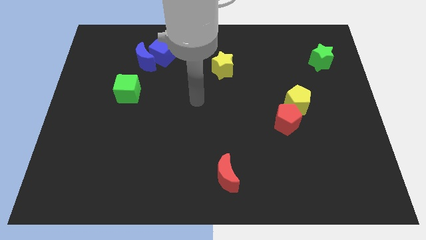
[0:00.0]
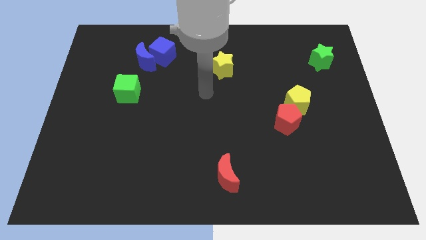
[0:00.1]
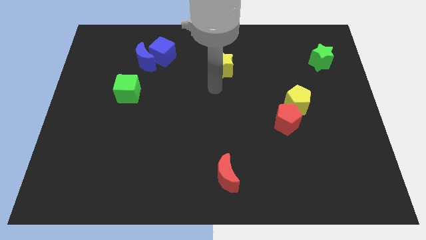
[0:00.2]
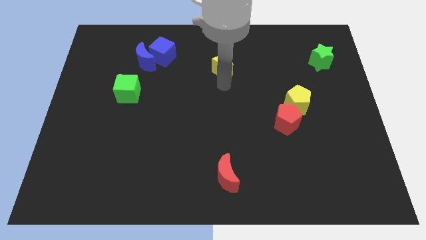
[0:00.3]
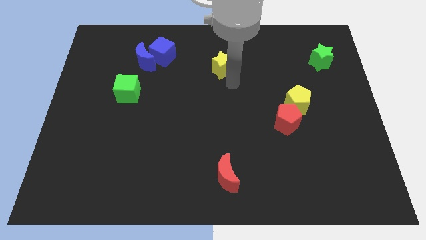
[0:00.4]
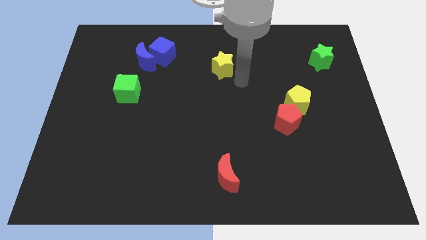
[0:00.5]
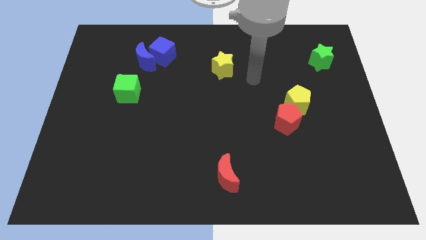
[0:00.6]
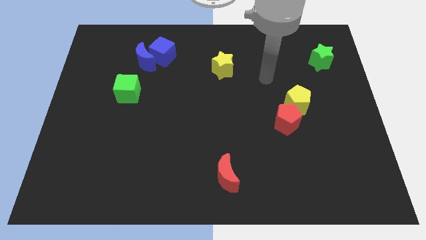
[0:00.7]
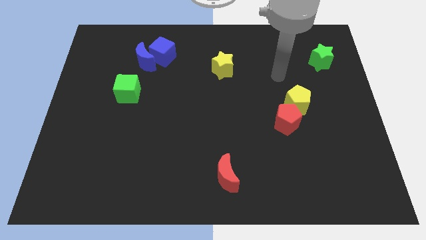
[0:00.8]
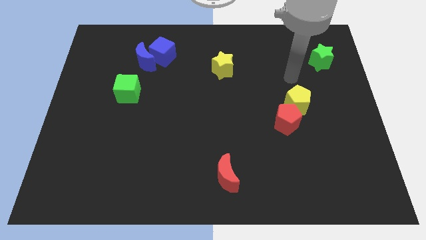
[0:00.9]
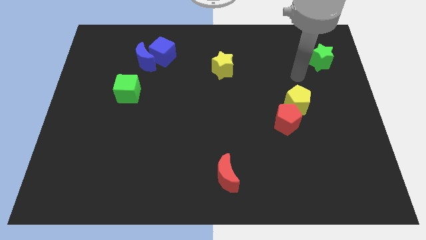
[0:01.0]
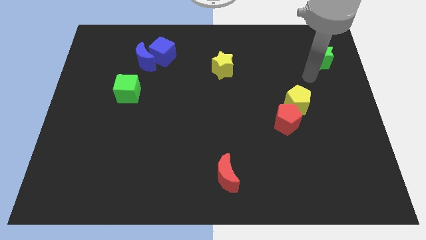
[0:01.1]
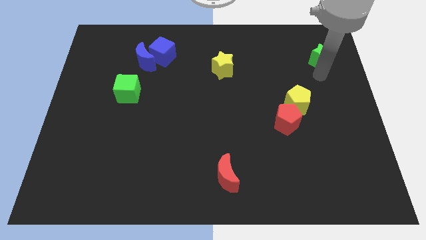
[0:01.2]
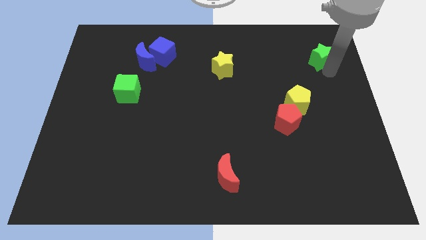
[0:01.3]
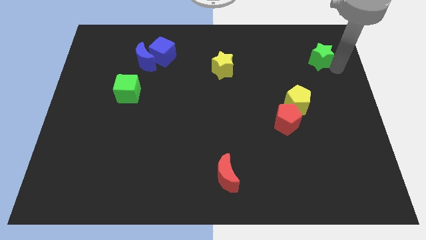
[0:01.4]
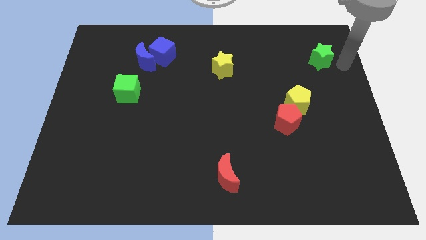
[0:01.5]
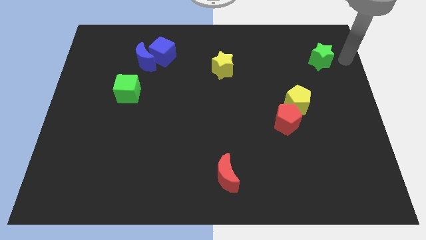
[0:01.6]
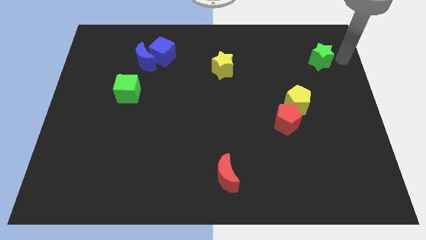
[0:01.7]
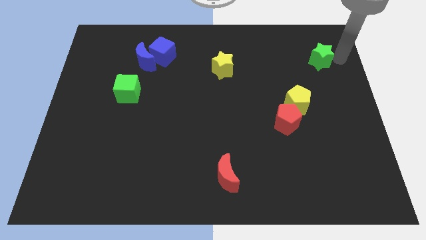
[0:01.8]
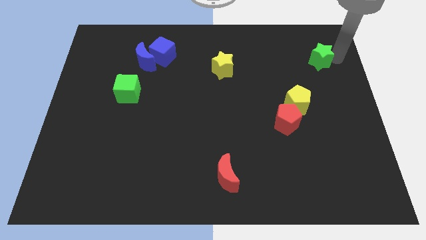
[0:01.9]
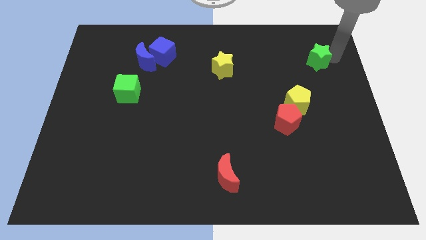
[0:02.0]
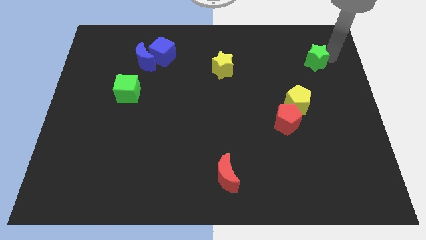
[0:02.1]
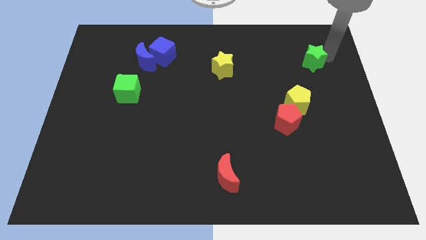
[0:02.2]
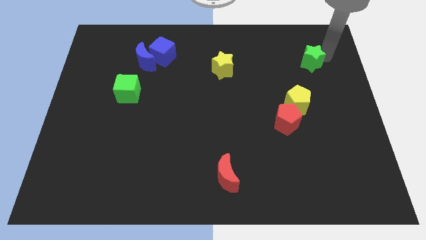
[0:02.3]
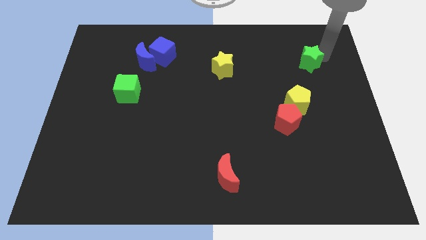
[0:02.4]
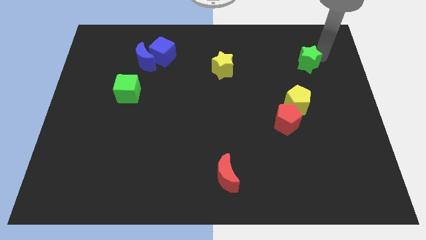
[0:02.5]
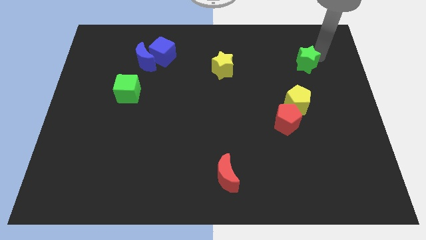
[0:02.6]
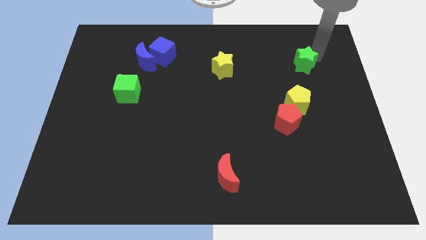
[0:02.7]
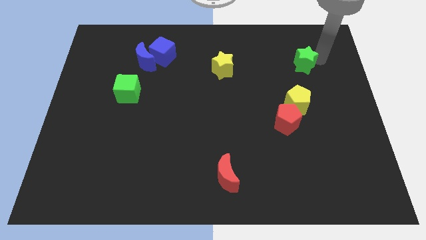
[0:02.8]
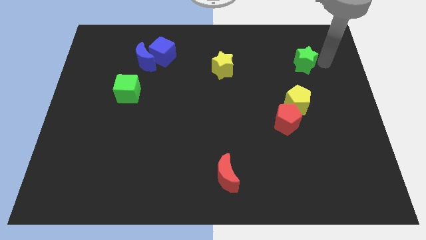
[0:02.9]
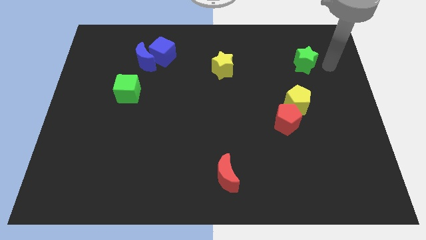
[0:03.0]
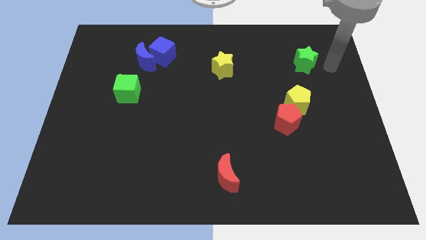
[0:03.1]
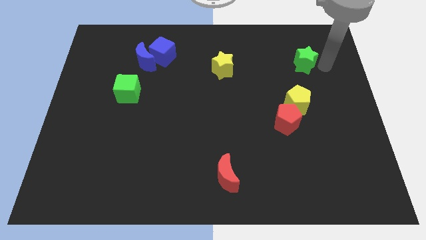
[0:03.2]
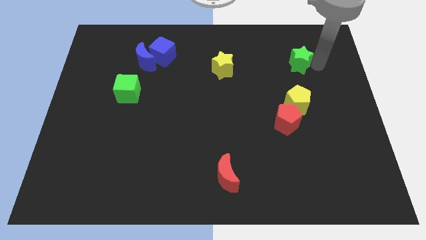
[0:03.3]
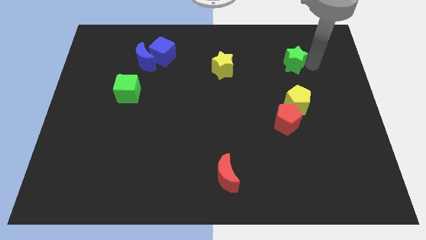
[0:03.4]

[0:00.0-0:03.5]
push the green star to the left slightly

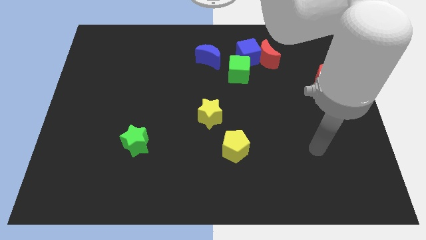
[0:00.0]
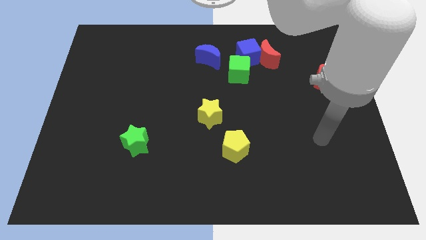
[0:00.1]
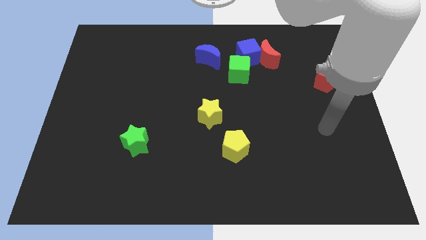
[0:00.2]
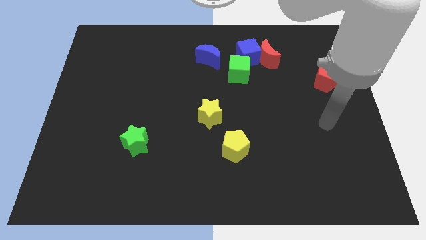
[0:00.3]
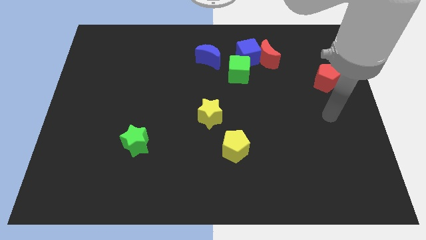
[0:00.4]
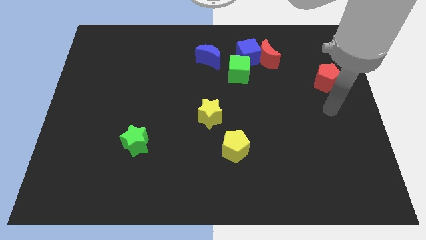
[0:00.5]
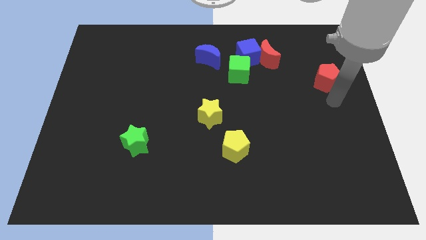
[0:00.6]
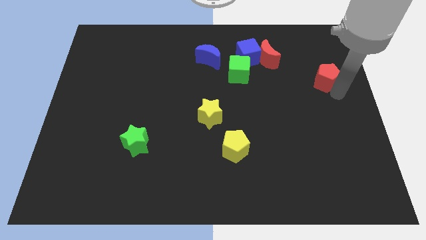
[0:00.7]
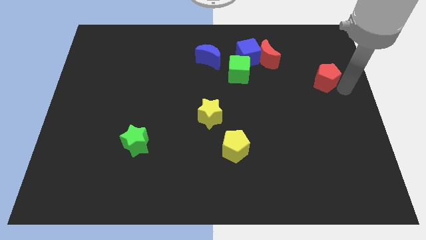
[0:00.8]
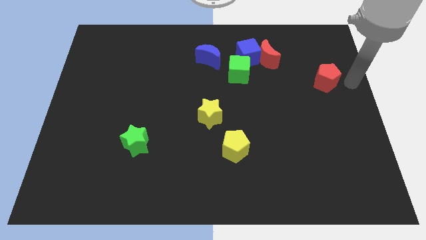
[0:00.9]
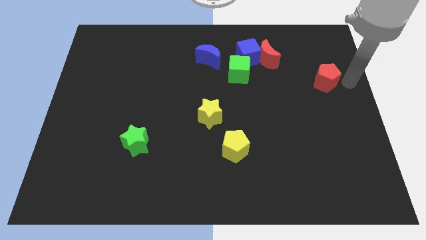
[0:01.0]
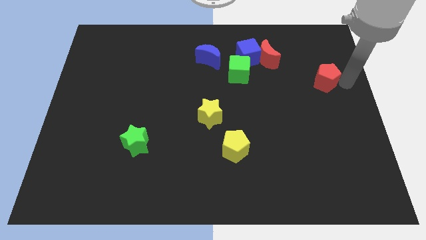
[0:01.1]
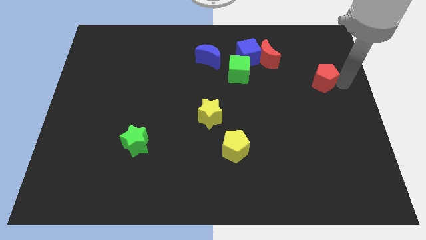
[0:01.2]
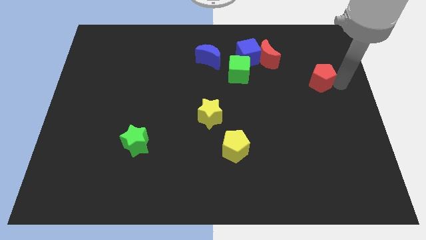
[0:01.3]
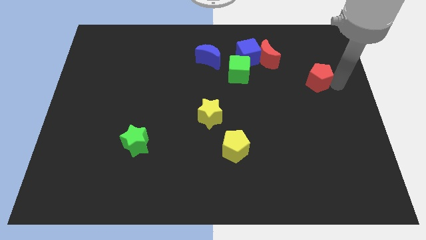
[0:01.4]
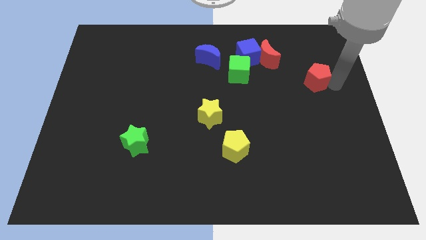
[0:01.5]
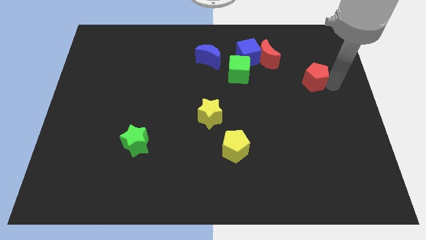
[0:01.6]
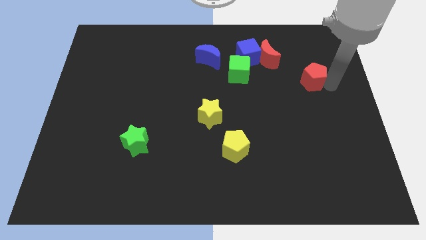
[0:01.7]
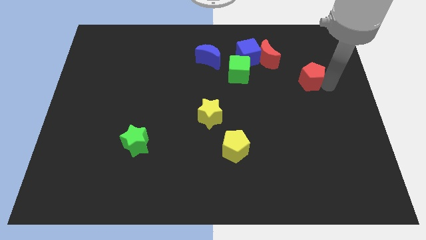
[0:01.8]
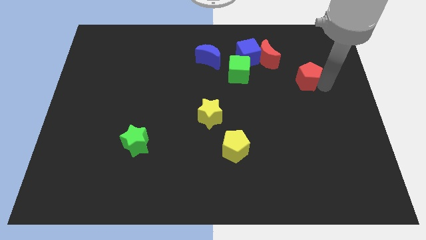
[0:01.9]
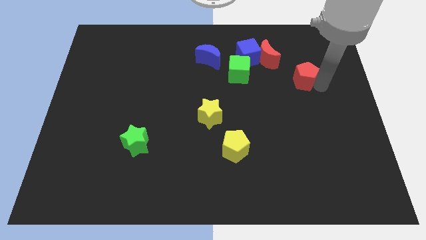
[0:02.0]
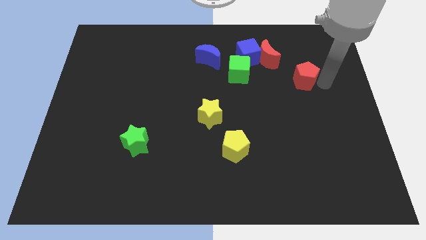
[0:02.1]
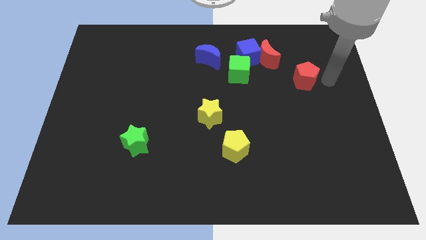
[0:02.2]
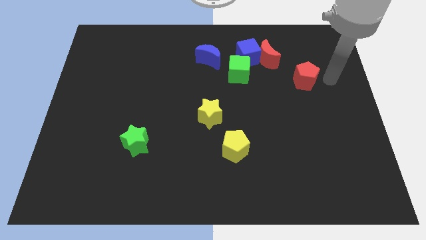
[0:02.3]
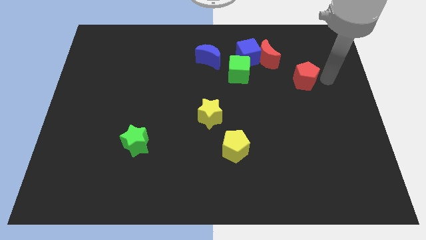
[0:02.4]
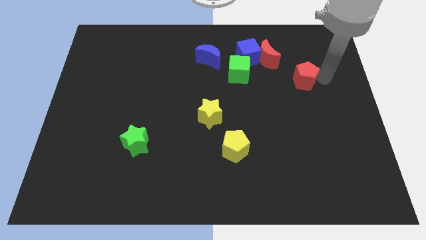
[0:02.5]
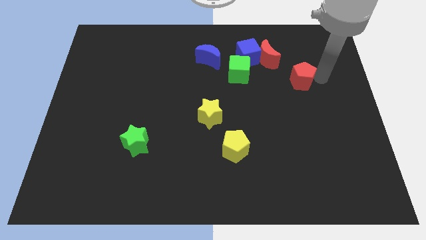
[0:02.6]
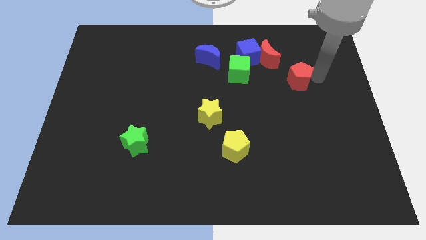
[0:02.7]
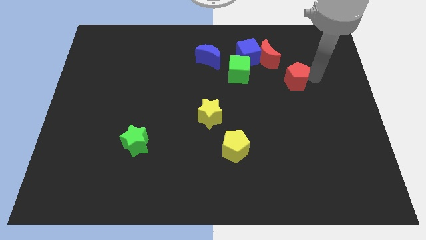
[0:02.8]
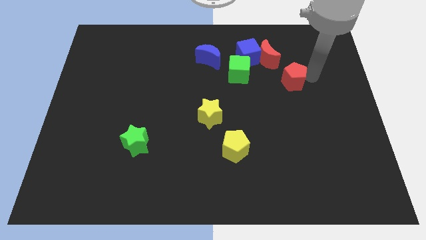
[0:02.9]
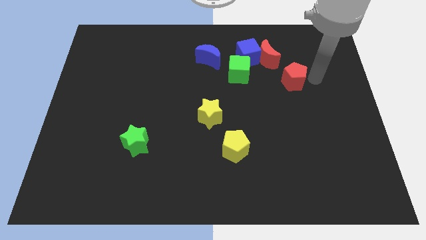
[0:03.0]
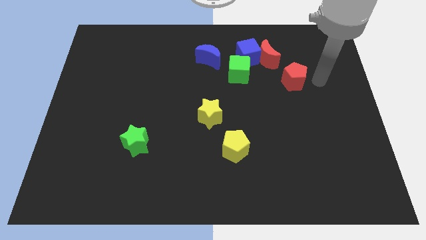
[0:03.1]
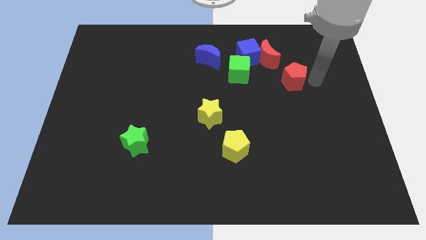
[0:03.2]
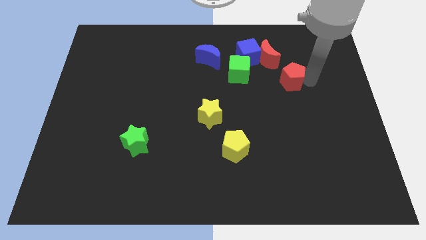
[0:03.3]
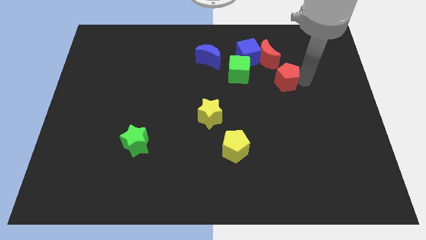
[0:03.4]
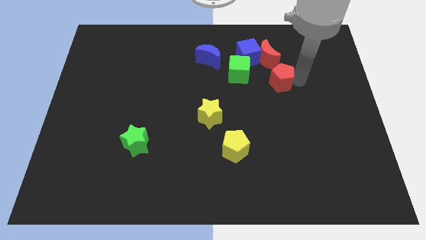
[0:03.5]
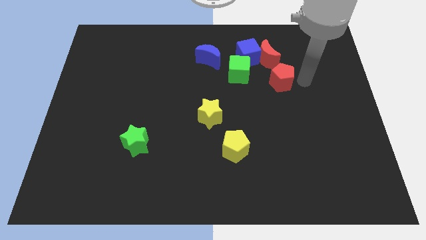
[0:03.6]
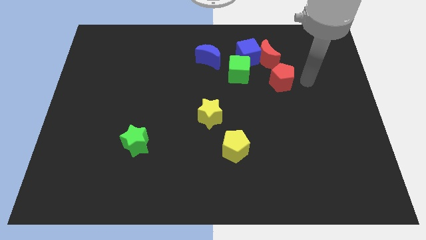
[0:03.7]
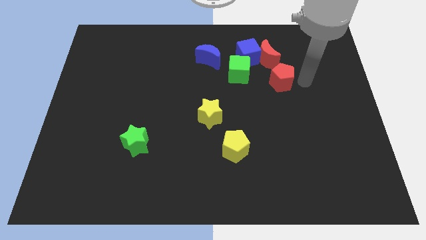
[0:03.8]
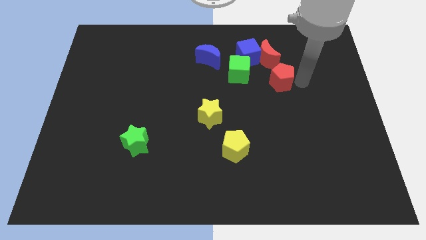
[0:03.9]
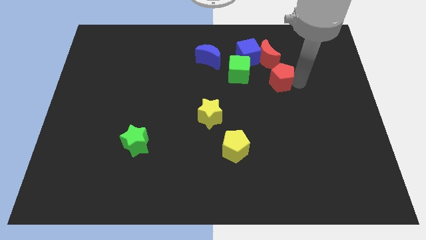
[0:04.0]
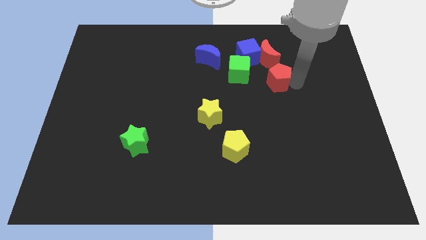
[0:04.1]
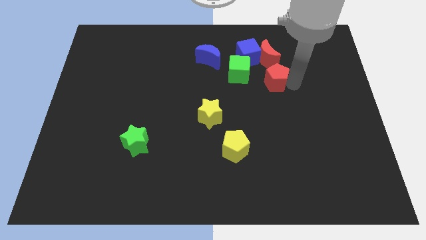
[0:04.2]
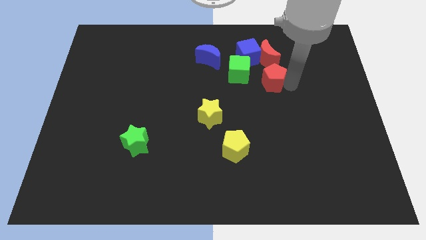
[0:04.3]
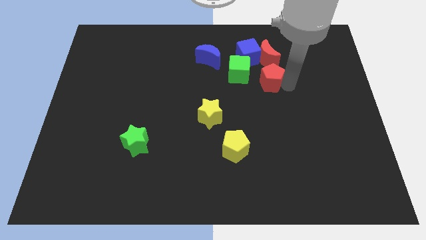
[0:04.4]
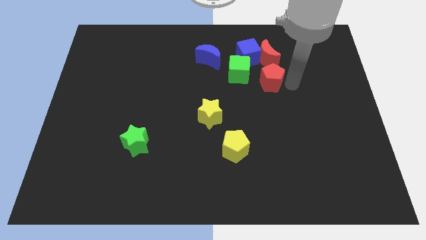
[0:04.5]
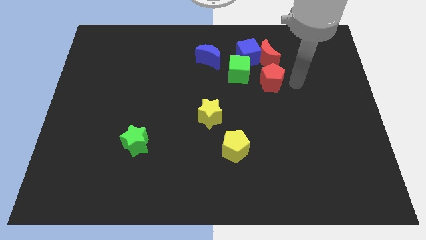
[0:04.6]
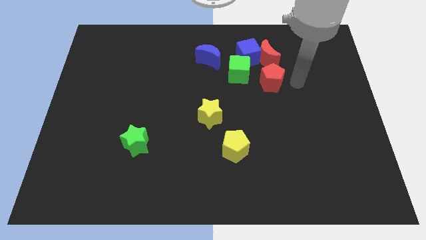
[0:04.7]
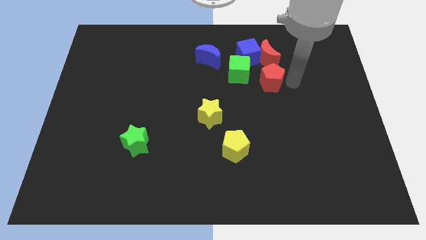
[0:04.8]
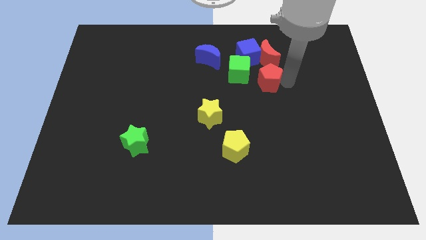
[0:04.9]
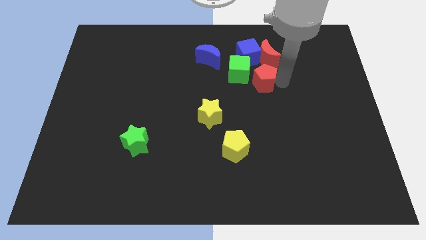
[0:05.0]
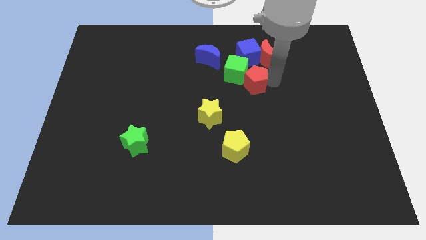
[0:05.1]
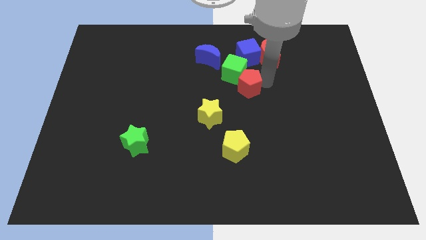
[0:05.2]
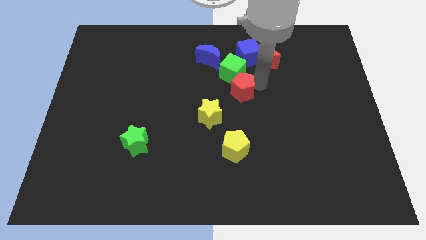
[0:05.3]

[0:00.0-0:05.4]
slide the red pentagon left
